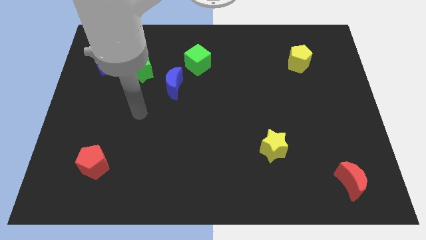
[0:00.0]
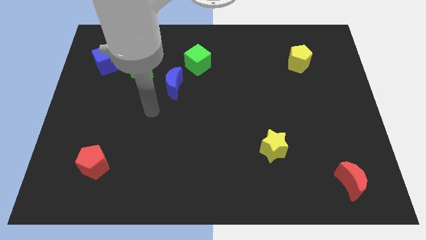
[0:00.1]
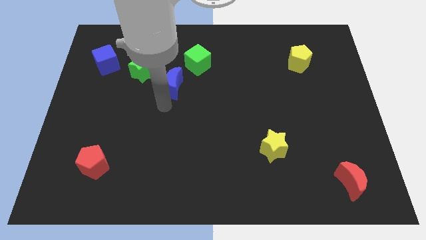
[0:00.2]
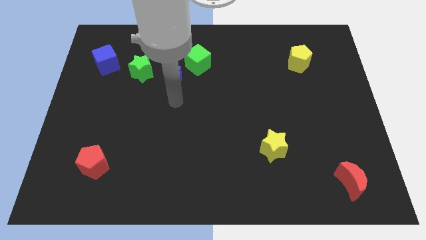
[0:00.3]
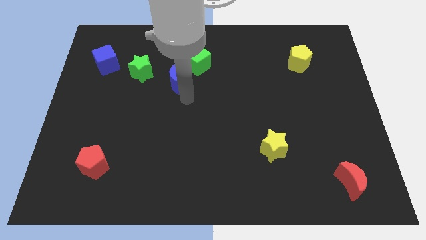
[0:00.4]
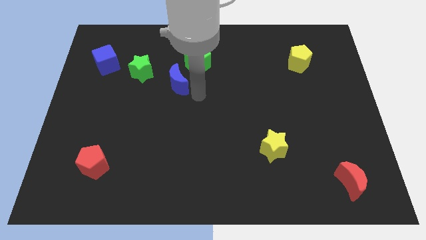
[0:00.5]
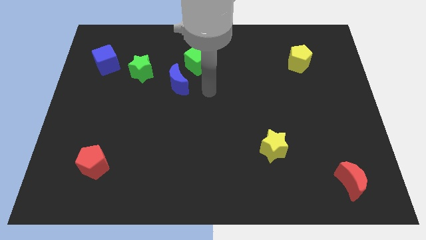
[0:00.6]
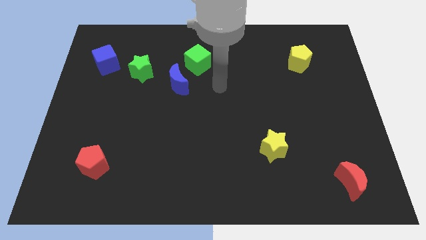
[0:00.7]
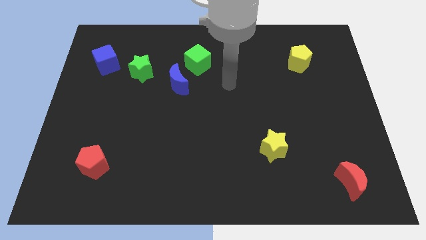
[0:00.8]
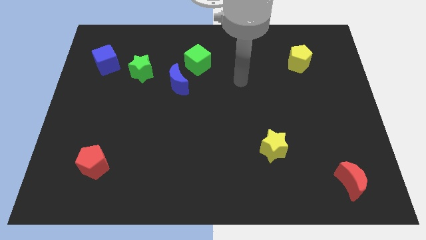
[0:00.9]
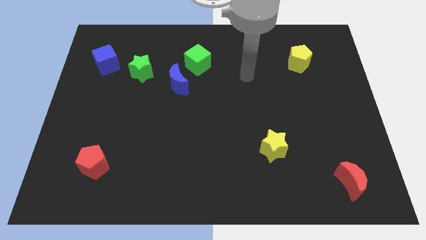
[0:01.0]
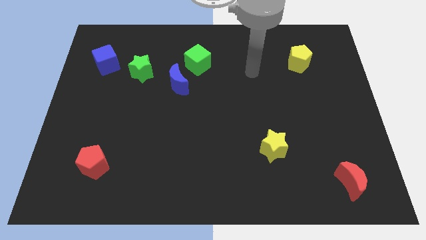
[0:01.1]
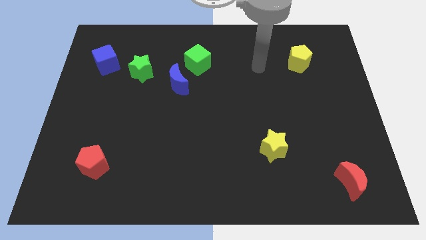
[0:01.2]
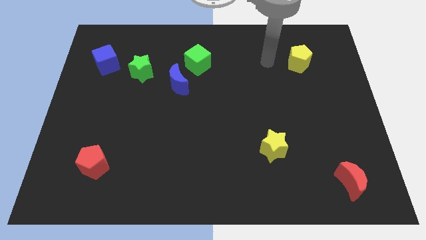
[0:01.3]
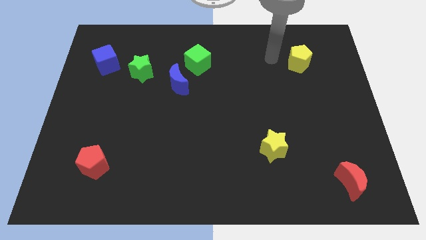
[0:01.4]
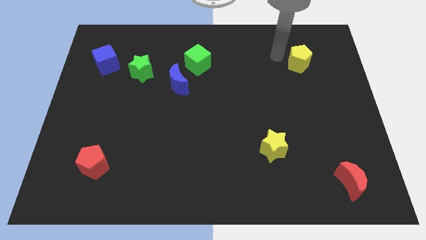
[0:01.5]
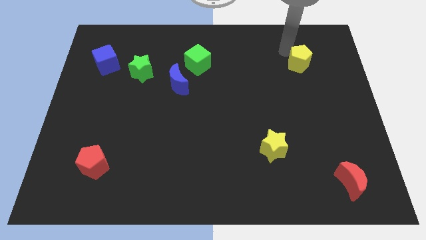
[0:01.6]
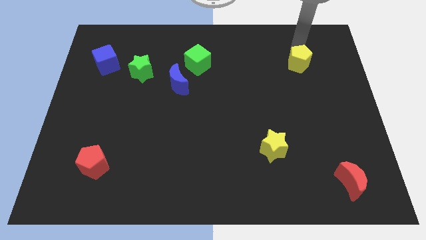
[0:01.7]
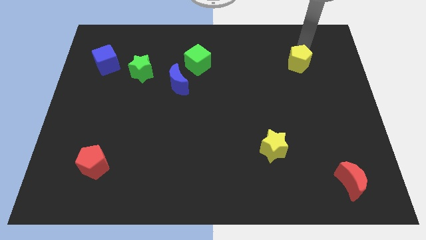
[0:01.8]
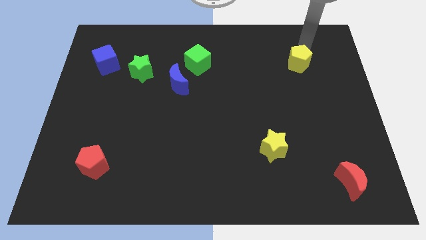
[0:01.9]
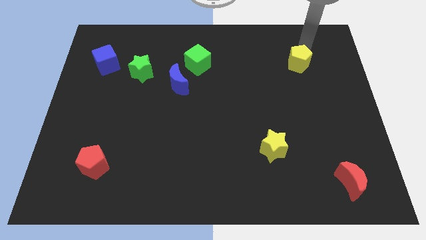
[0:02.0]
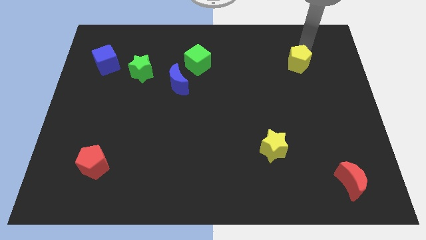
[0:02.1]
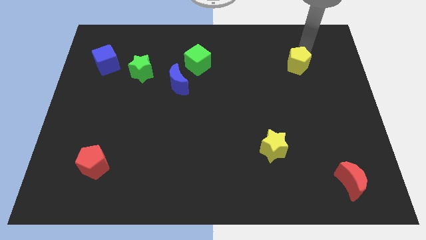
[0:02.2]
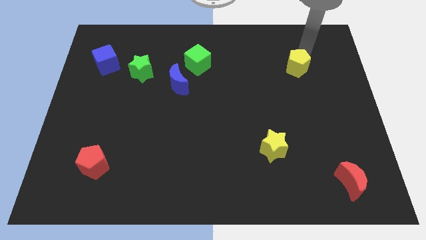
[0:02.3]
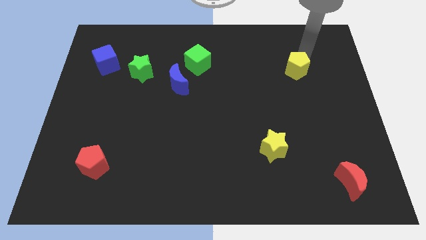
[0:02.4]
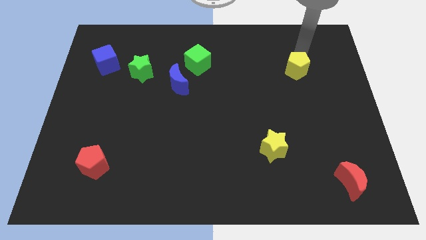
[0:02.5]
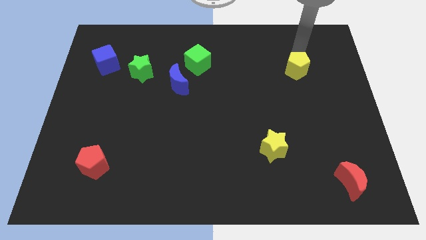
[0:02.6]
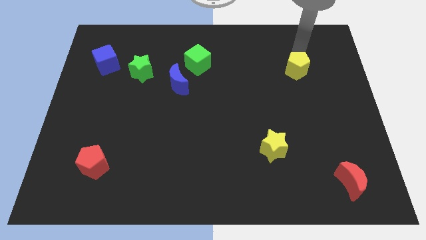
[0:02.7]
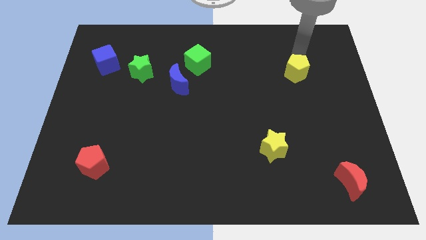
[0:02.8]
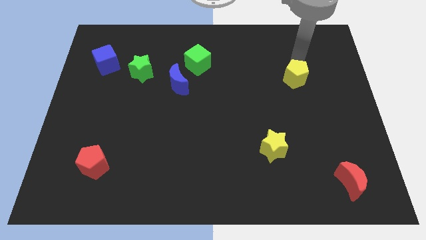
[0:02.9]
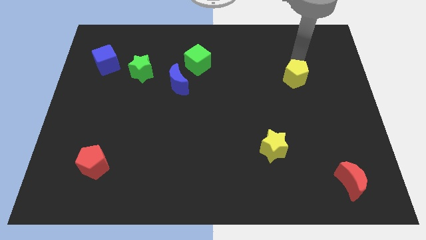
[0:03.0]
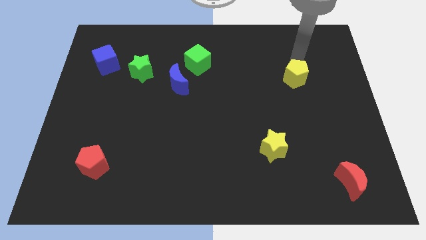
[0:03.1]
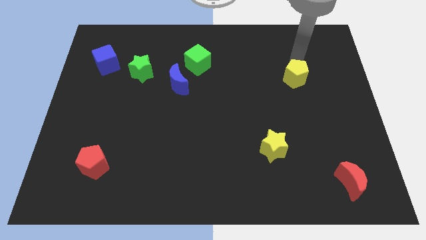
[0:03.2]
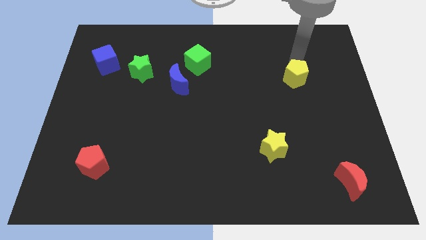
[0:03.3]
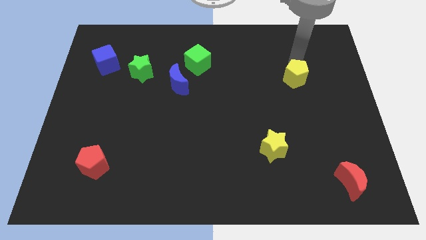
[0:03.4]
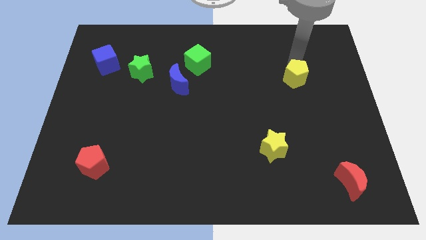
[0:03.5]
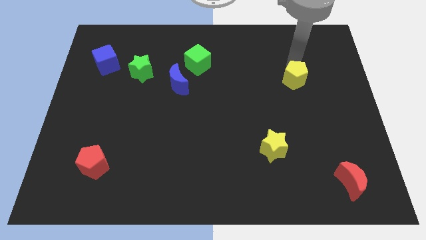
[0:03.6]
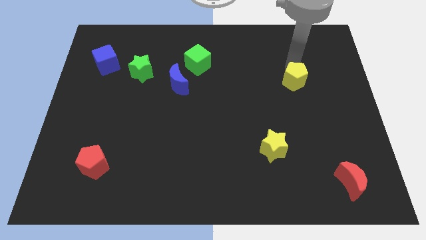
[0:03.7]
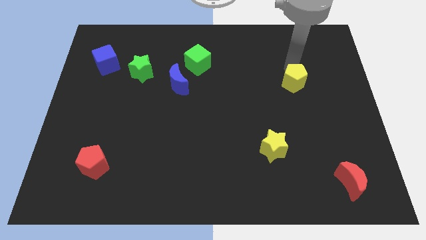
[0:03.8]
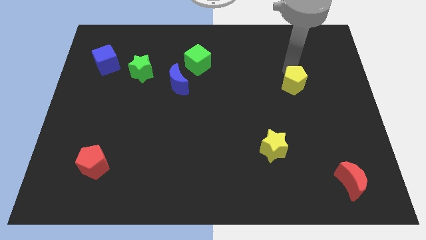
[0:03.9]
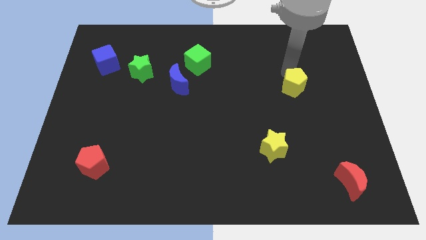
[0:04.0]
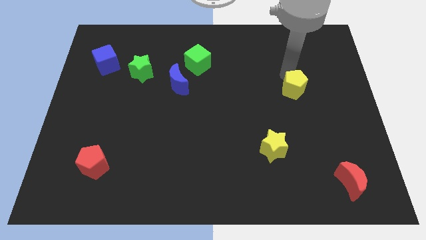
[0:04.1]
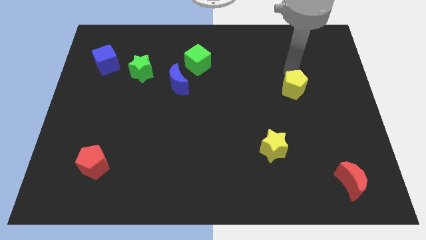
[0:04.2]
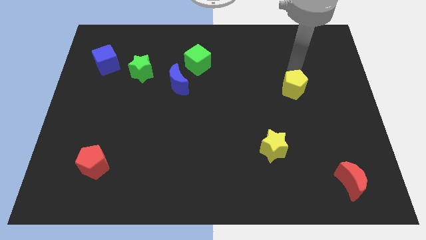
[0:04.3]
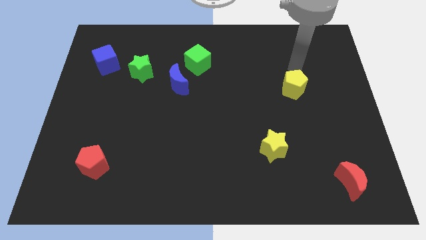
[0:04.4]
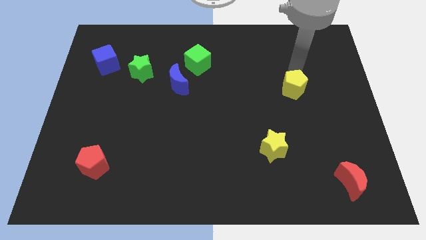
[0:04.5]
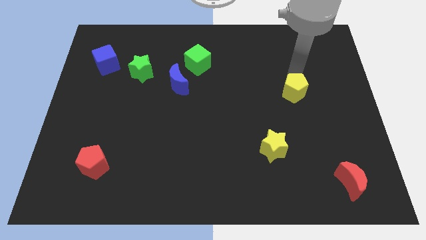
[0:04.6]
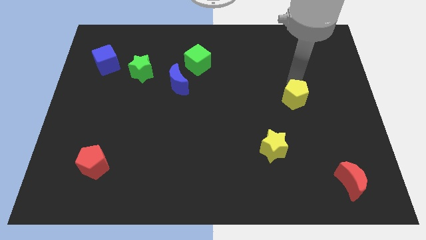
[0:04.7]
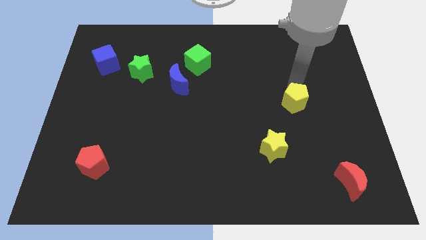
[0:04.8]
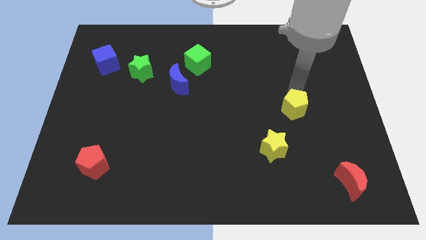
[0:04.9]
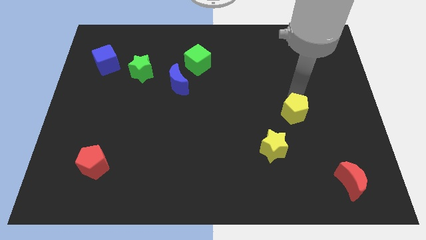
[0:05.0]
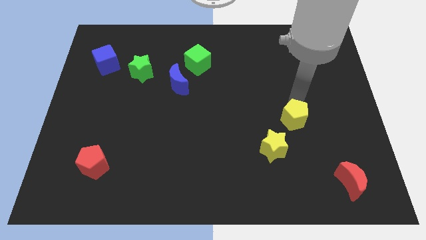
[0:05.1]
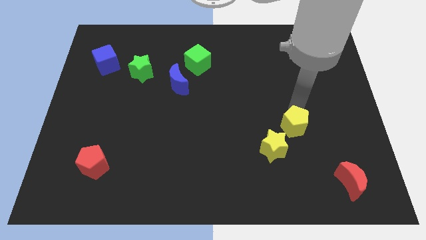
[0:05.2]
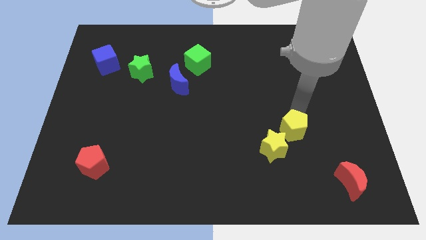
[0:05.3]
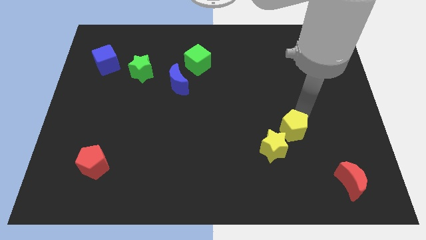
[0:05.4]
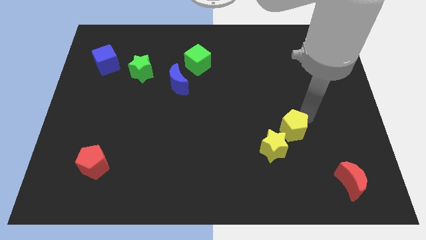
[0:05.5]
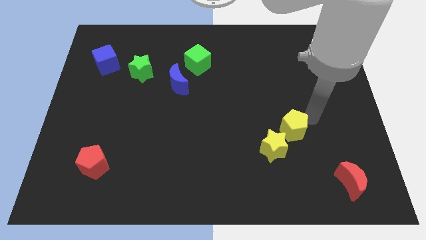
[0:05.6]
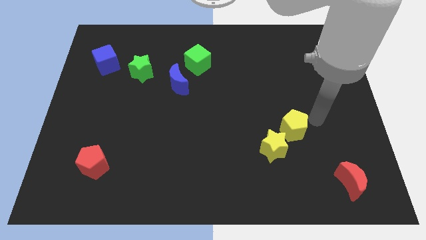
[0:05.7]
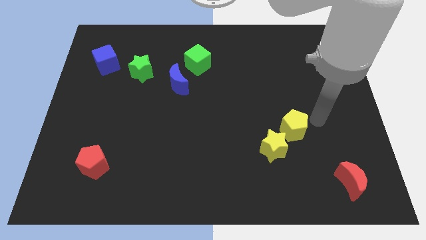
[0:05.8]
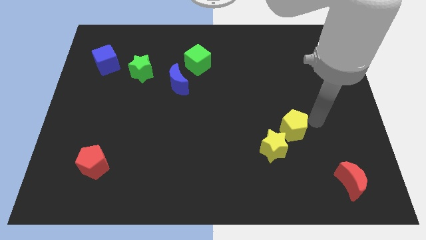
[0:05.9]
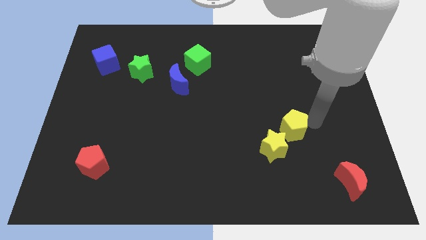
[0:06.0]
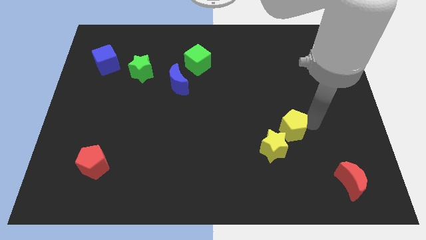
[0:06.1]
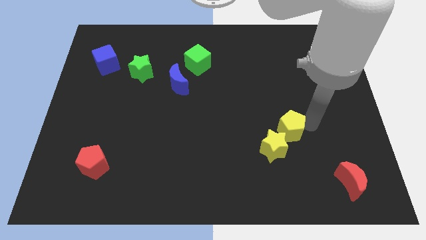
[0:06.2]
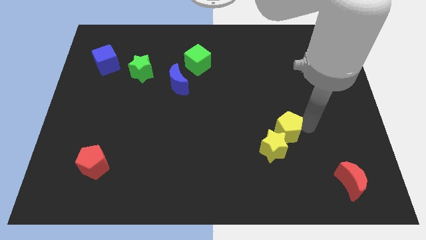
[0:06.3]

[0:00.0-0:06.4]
move the yellow pentagon close to the yellow star

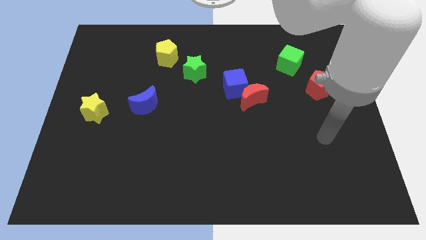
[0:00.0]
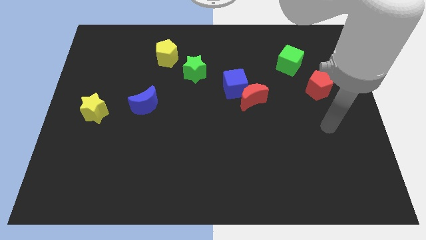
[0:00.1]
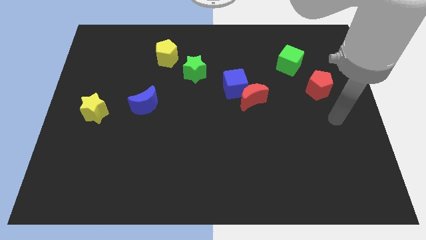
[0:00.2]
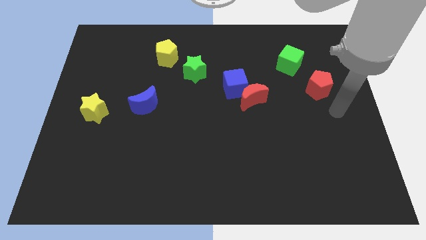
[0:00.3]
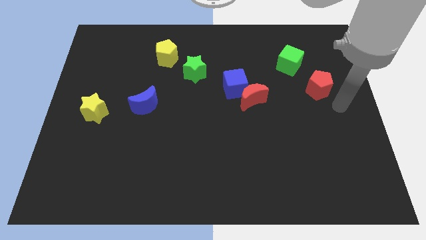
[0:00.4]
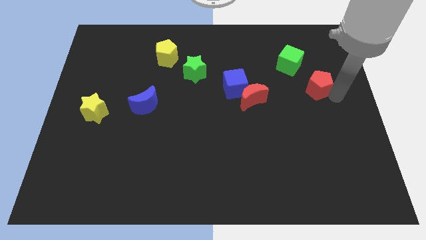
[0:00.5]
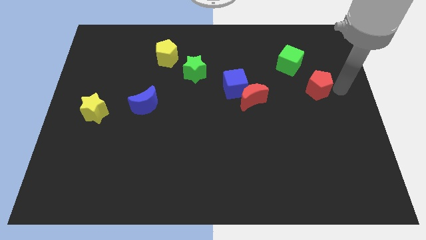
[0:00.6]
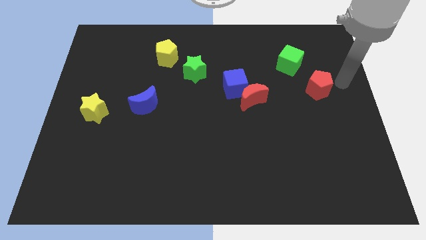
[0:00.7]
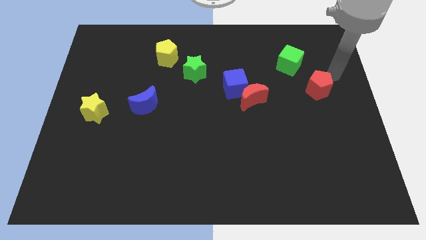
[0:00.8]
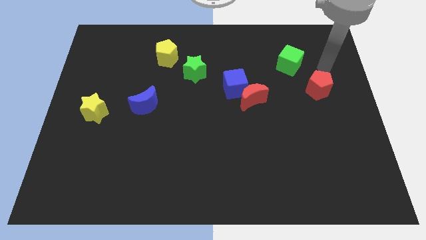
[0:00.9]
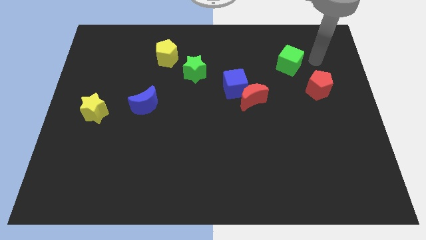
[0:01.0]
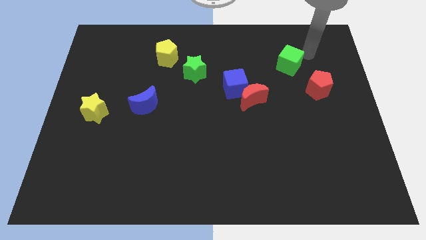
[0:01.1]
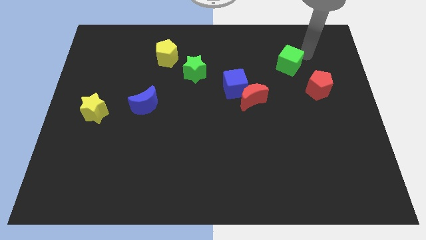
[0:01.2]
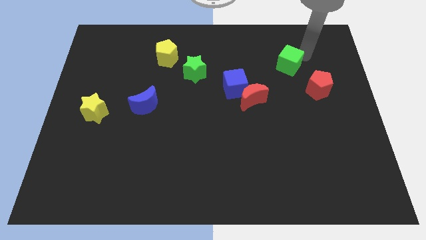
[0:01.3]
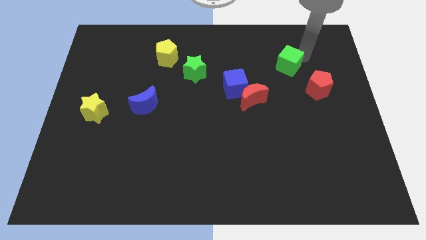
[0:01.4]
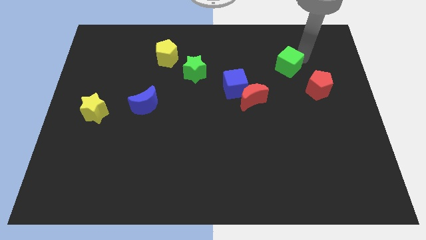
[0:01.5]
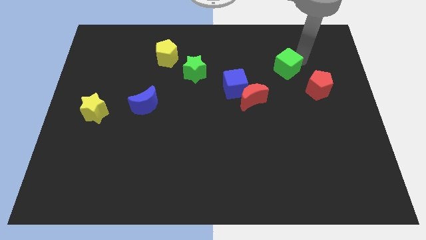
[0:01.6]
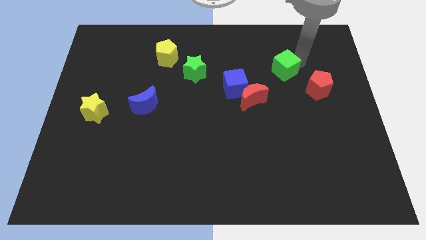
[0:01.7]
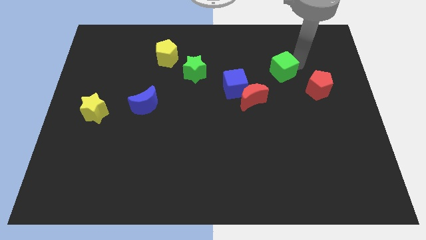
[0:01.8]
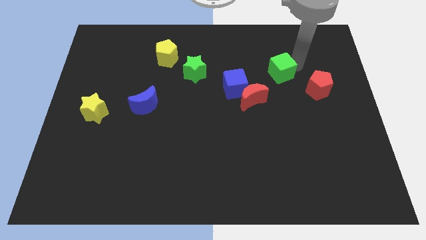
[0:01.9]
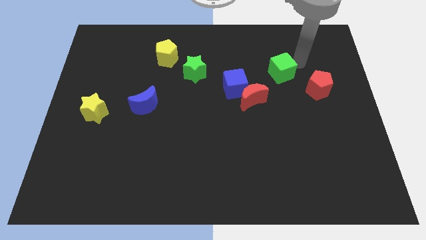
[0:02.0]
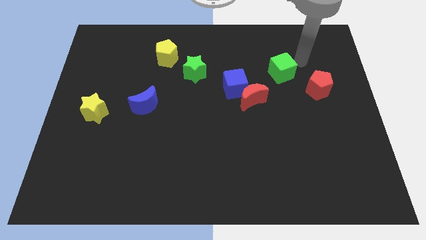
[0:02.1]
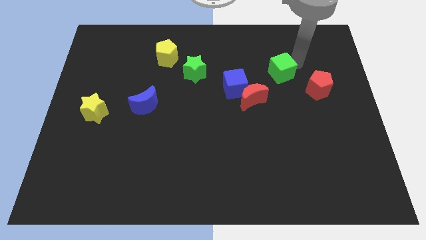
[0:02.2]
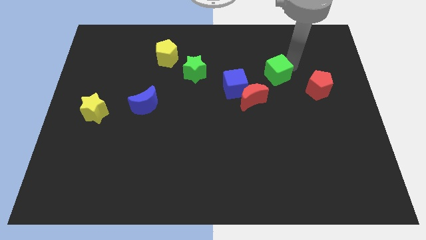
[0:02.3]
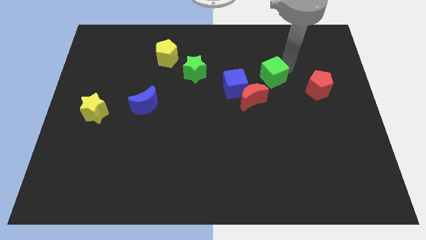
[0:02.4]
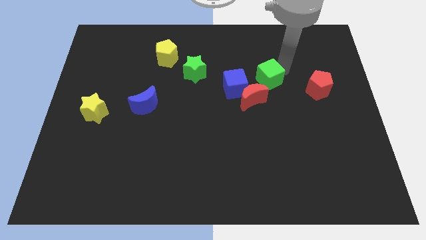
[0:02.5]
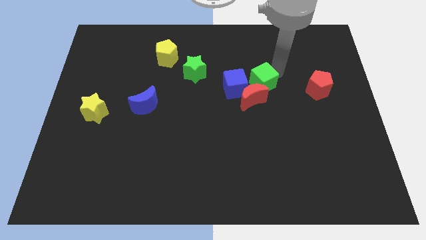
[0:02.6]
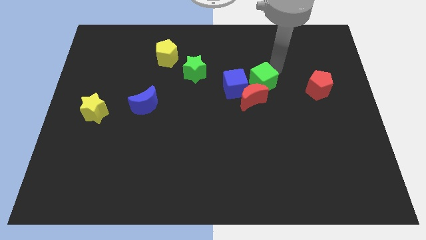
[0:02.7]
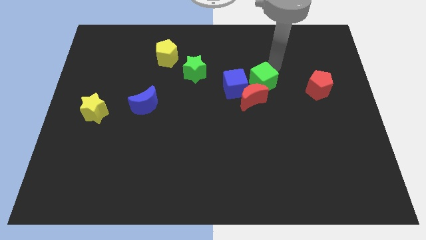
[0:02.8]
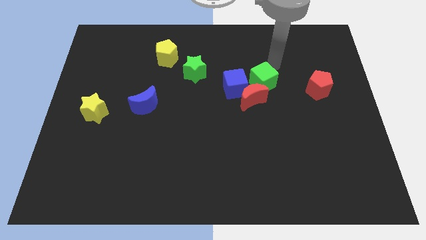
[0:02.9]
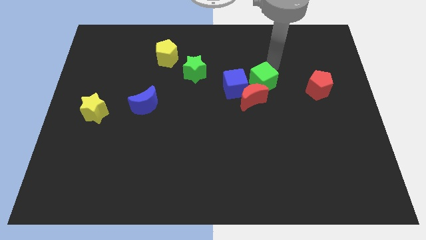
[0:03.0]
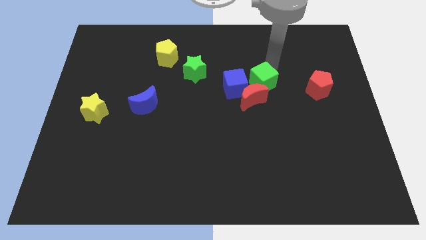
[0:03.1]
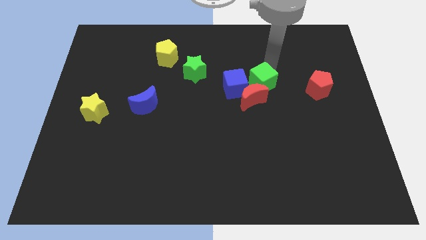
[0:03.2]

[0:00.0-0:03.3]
push the green cube to the red moon
